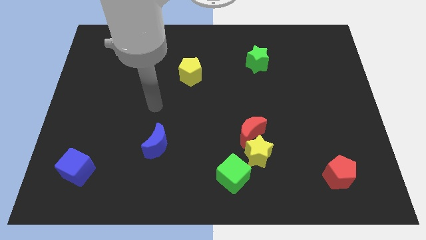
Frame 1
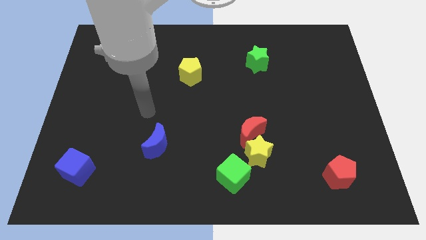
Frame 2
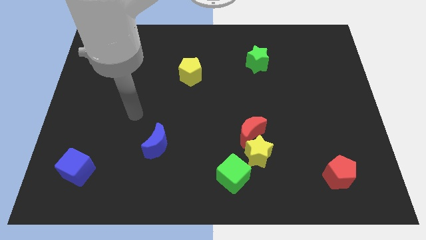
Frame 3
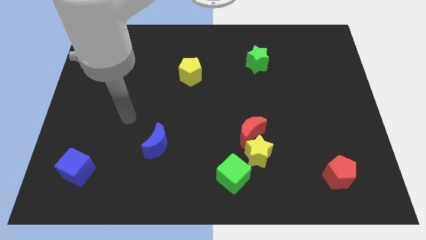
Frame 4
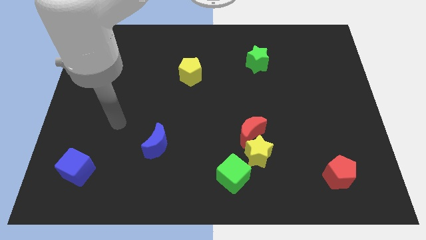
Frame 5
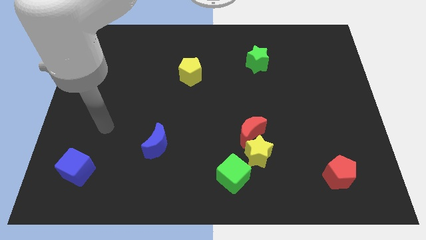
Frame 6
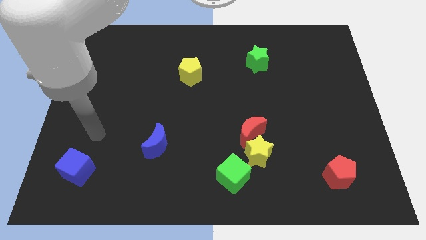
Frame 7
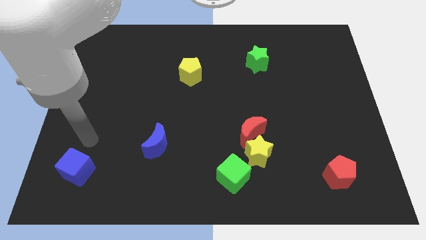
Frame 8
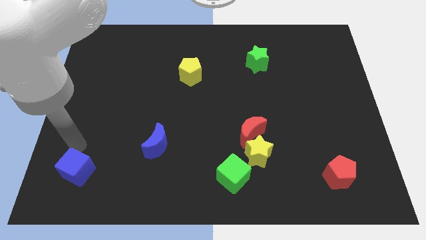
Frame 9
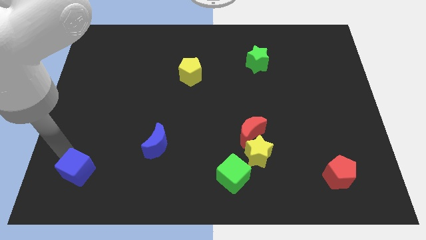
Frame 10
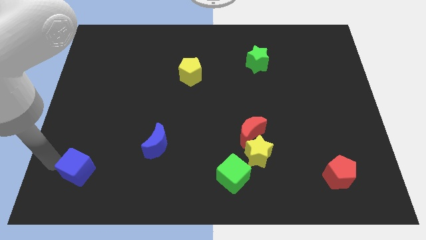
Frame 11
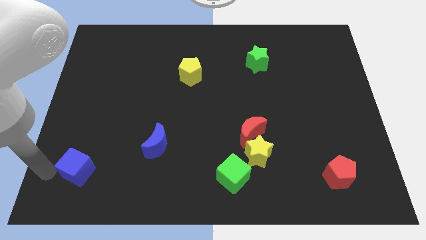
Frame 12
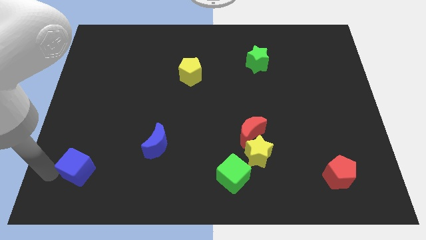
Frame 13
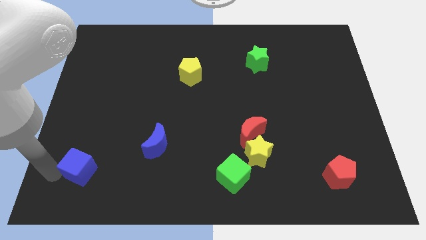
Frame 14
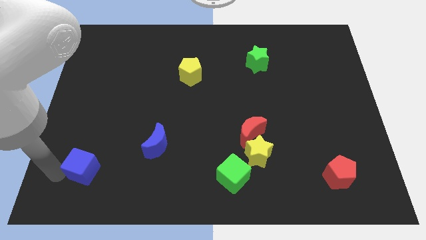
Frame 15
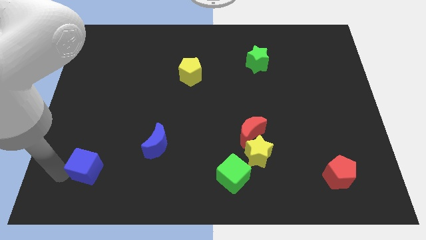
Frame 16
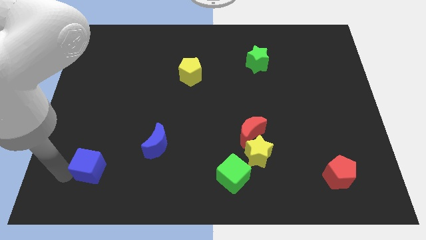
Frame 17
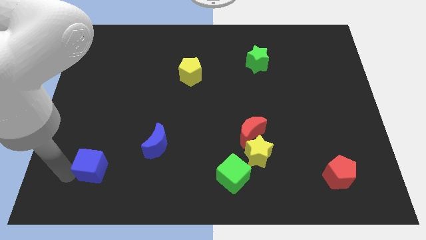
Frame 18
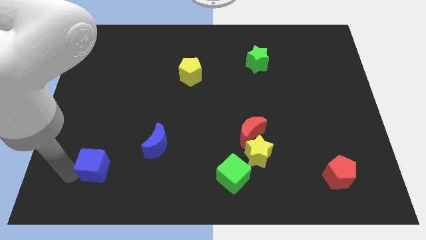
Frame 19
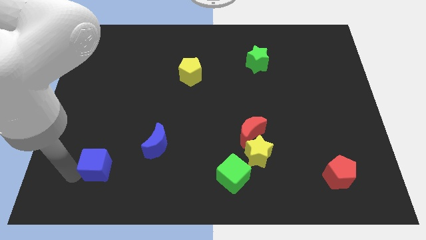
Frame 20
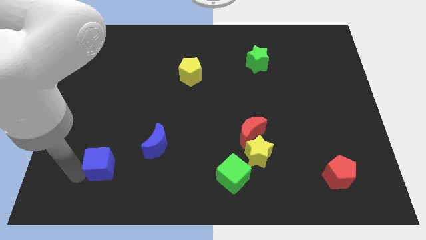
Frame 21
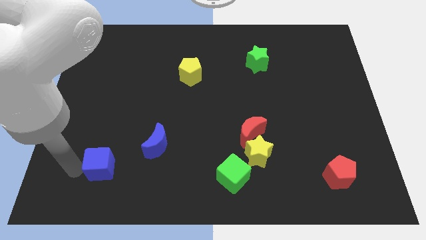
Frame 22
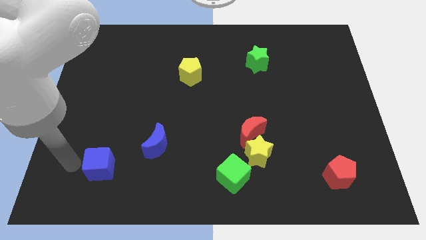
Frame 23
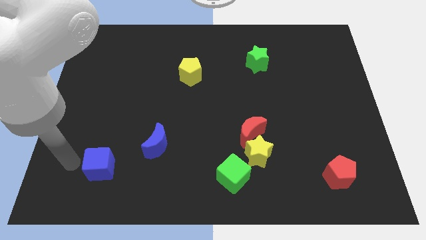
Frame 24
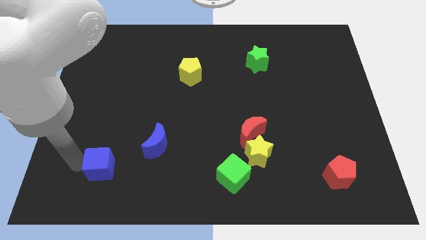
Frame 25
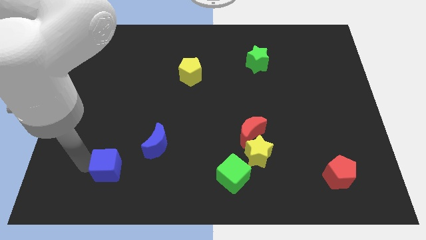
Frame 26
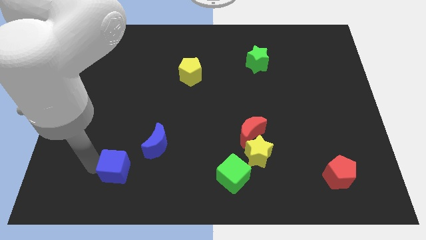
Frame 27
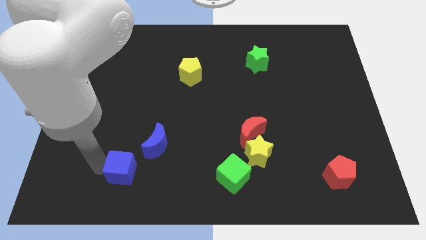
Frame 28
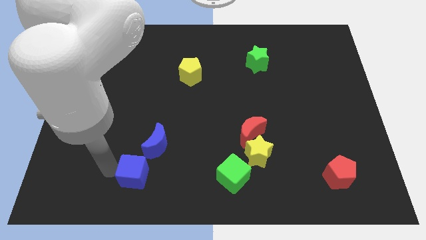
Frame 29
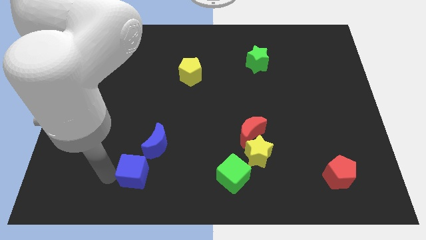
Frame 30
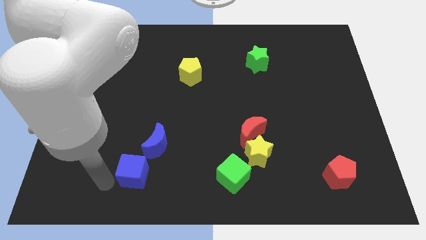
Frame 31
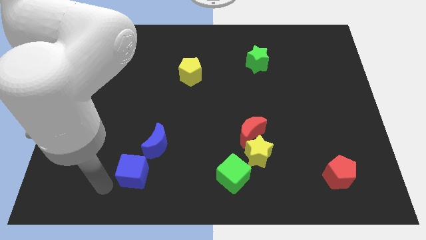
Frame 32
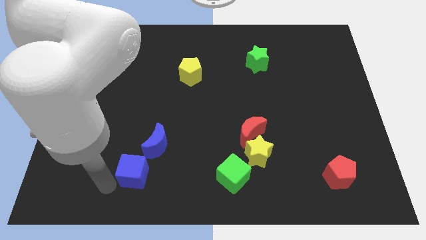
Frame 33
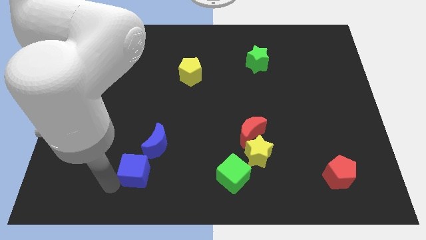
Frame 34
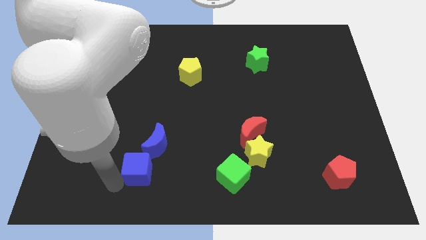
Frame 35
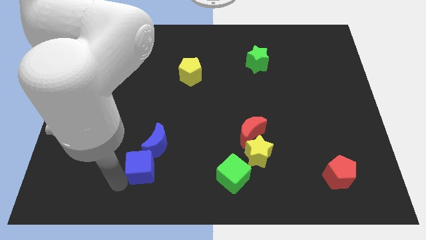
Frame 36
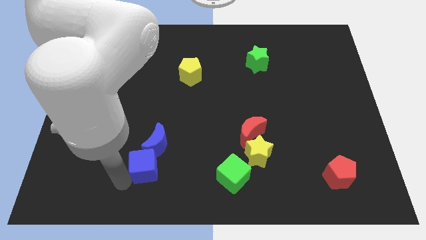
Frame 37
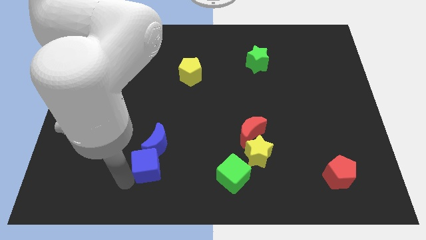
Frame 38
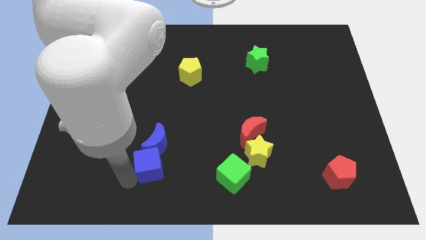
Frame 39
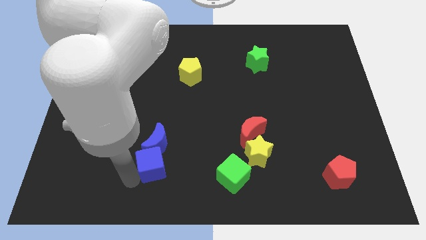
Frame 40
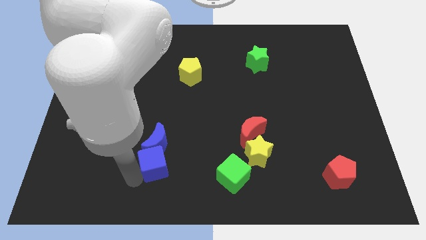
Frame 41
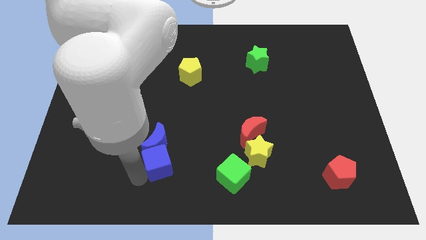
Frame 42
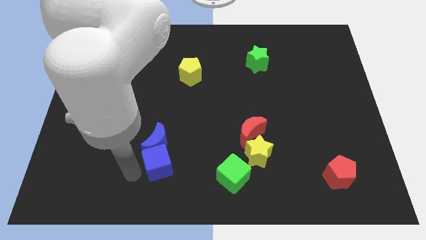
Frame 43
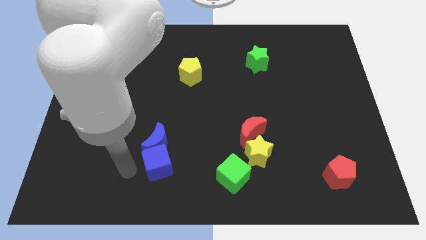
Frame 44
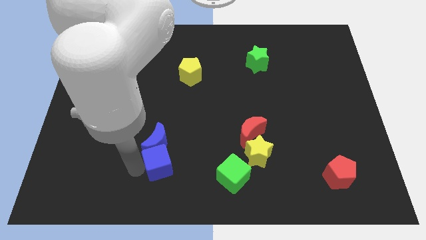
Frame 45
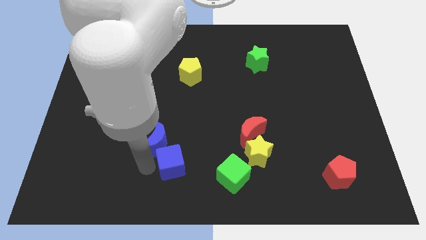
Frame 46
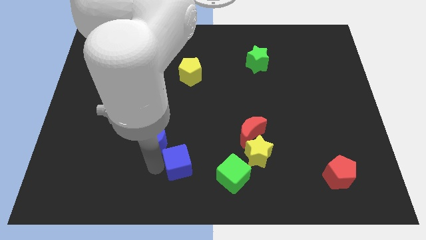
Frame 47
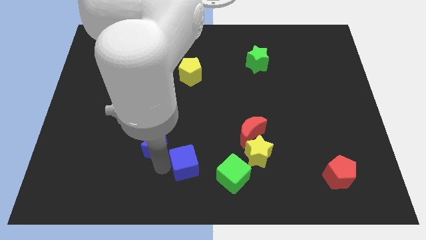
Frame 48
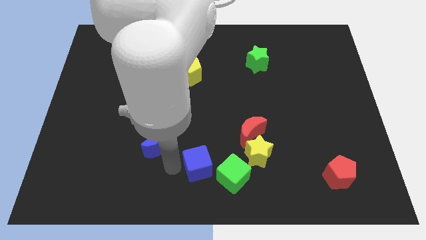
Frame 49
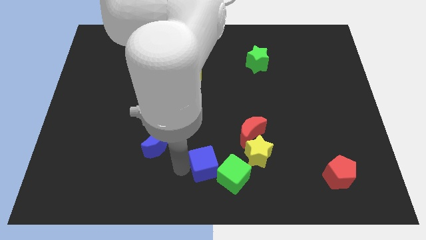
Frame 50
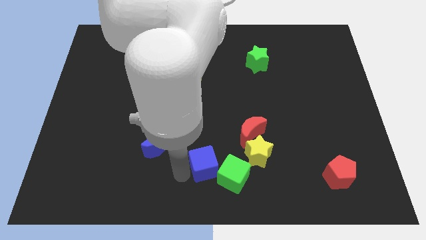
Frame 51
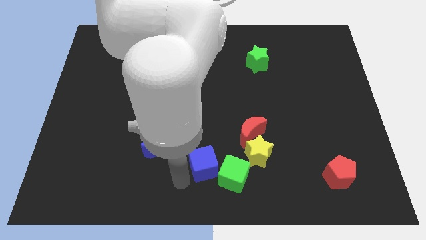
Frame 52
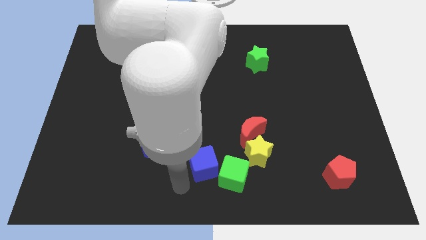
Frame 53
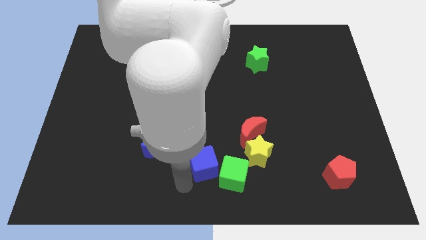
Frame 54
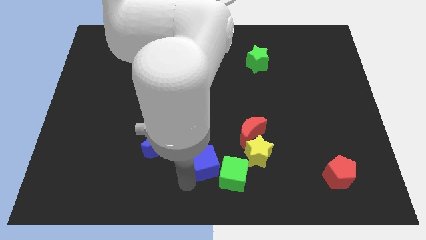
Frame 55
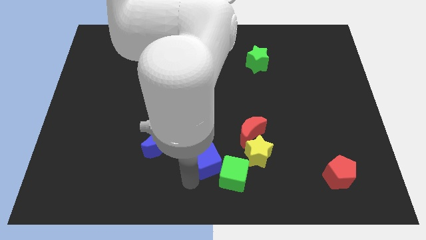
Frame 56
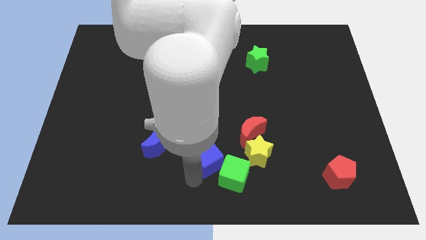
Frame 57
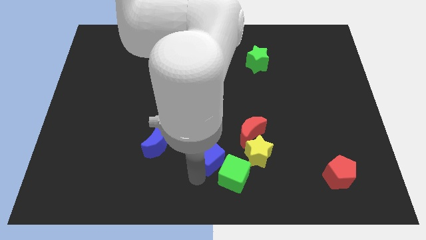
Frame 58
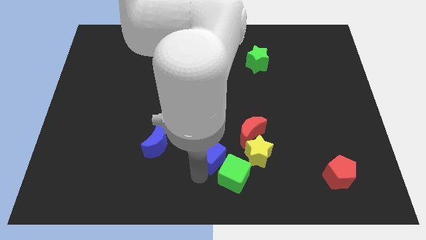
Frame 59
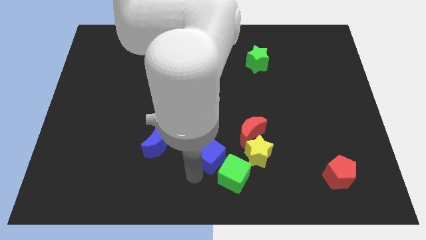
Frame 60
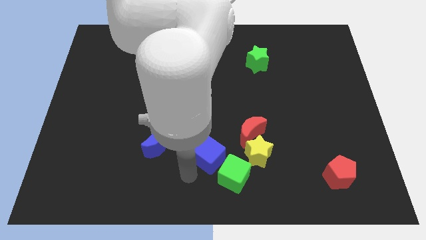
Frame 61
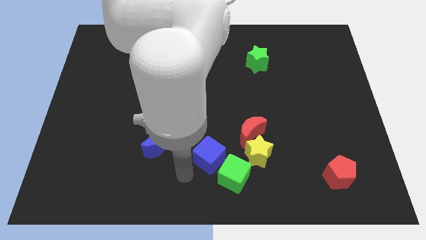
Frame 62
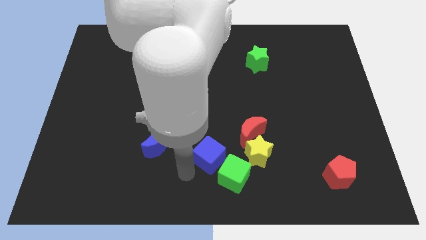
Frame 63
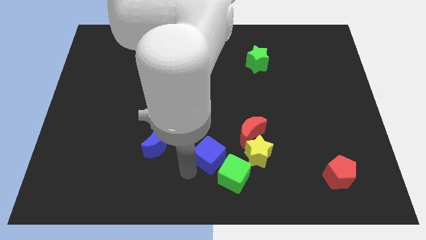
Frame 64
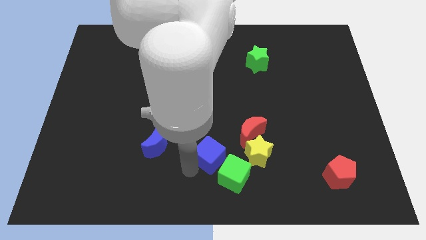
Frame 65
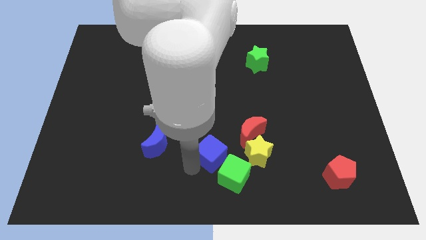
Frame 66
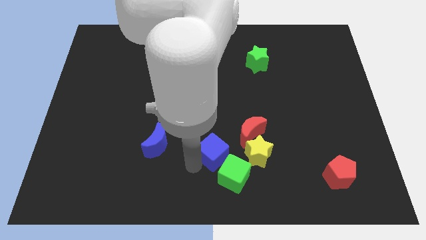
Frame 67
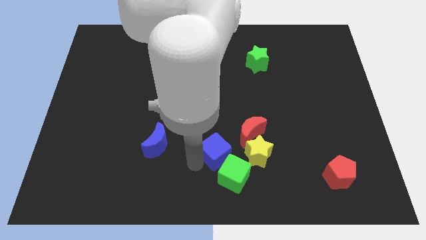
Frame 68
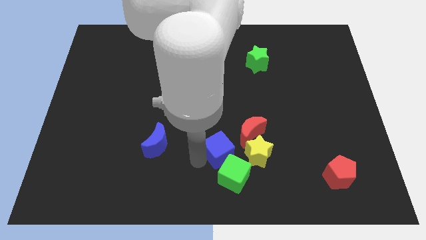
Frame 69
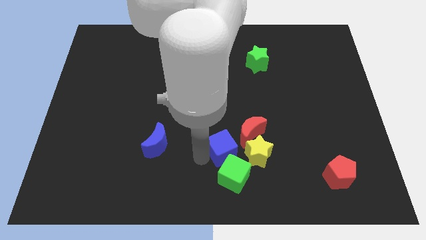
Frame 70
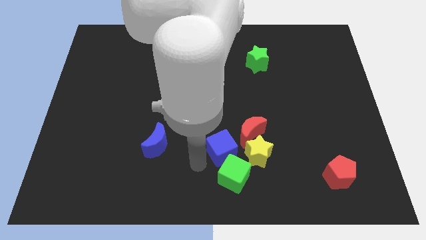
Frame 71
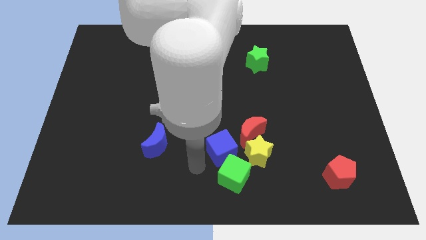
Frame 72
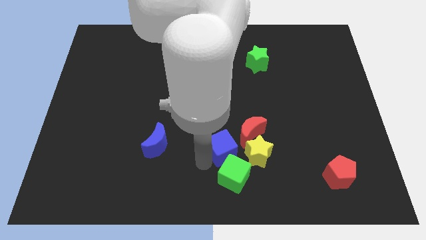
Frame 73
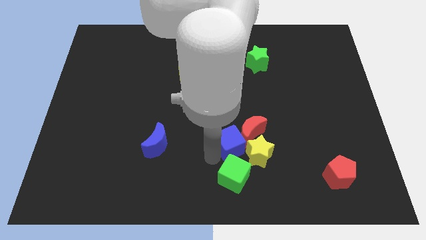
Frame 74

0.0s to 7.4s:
move the blue cube close to the red moon
